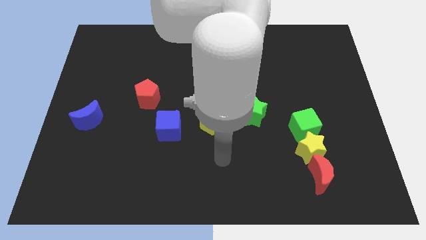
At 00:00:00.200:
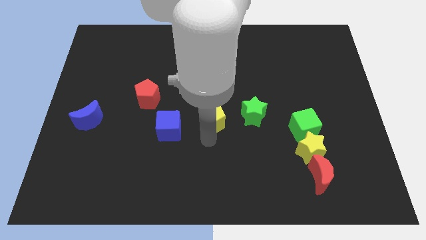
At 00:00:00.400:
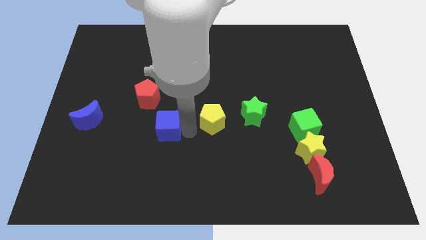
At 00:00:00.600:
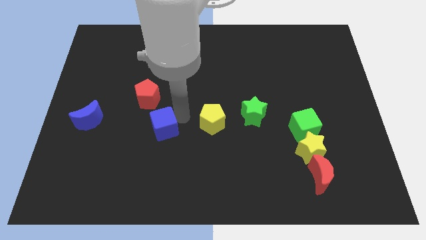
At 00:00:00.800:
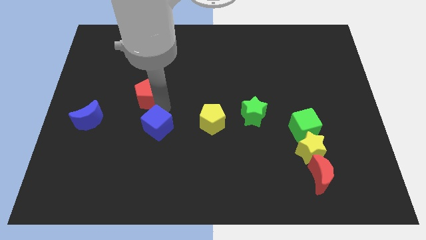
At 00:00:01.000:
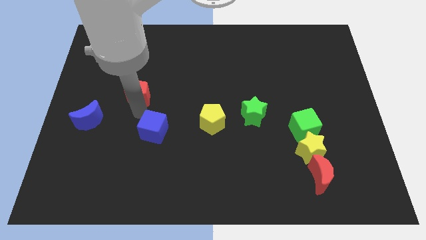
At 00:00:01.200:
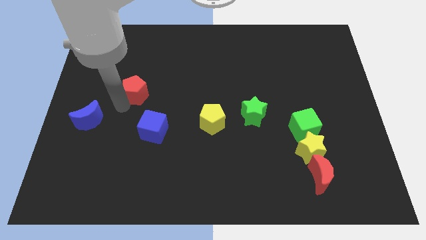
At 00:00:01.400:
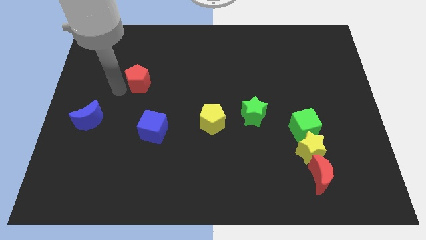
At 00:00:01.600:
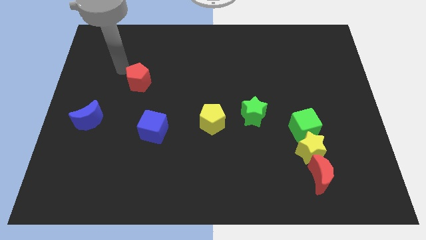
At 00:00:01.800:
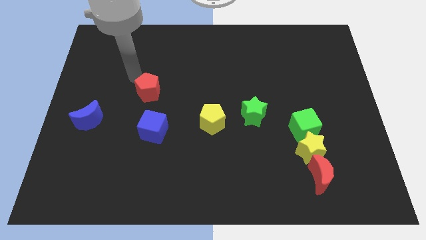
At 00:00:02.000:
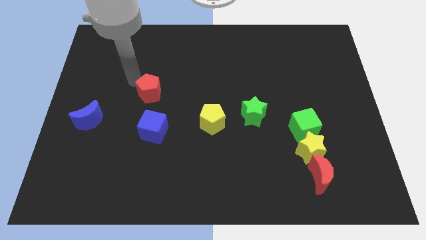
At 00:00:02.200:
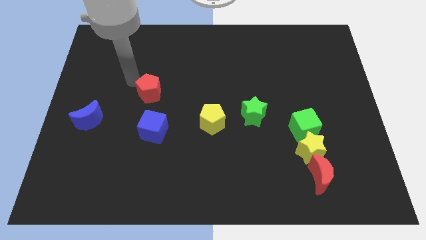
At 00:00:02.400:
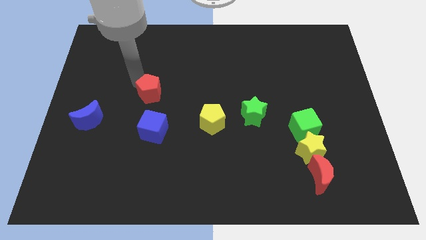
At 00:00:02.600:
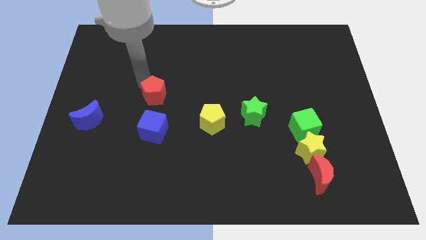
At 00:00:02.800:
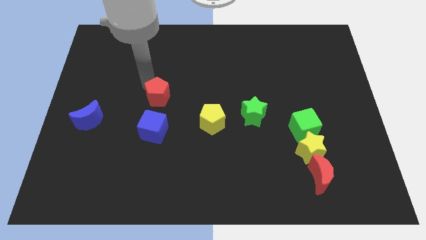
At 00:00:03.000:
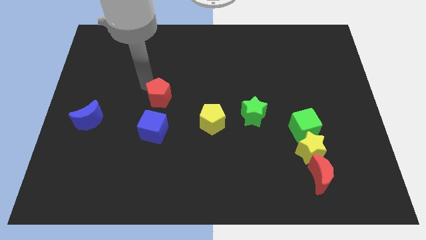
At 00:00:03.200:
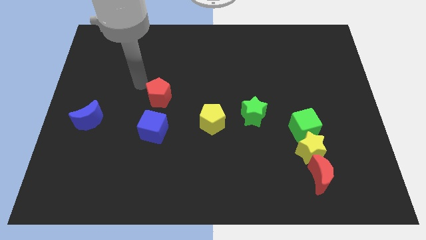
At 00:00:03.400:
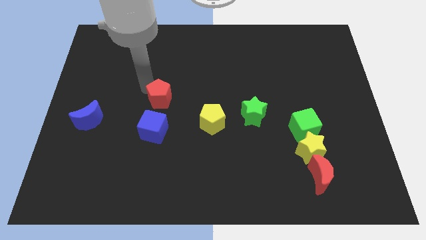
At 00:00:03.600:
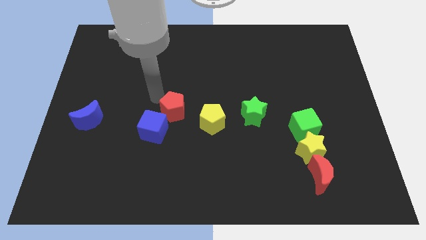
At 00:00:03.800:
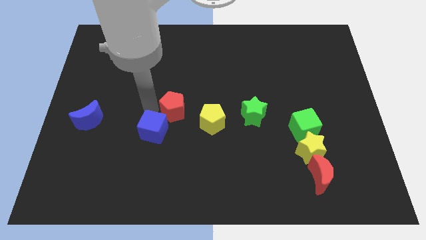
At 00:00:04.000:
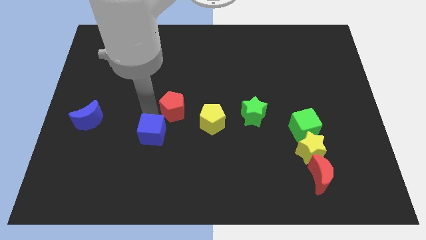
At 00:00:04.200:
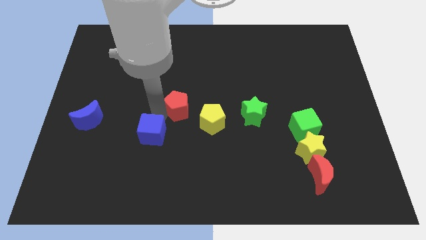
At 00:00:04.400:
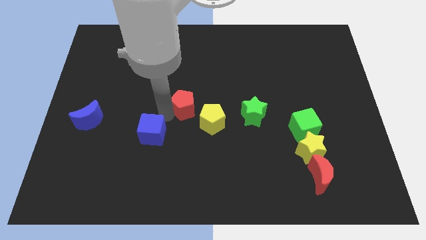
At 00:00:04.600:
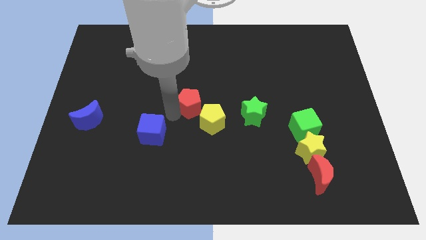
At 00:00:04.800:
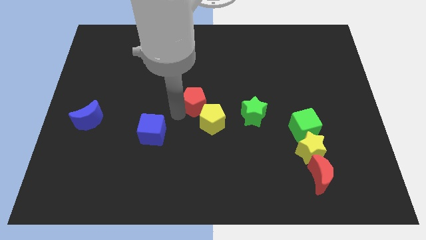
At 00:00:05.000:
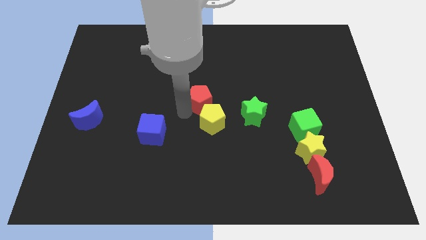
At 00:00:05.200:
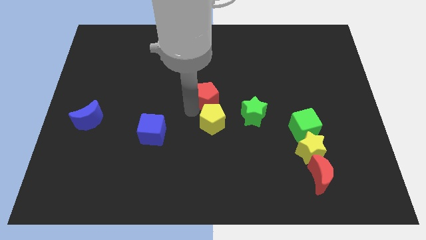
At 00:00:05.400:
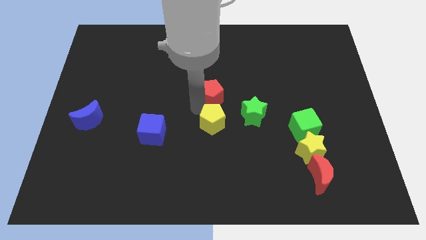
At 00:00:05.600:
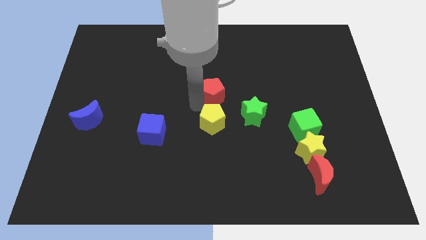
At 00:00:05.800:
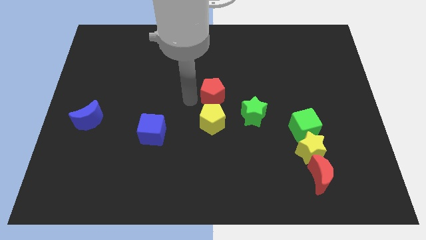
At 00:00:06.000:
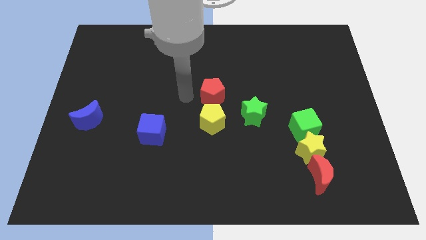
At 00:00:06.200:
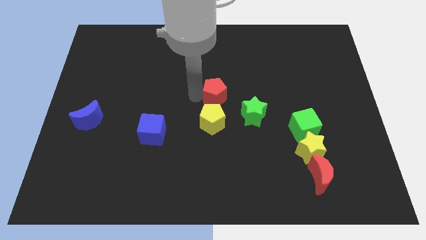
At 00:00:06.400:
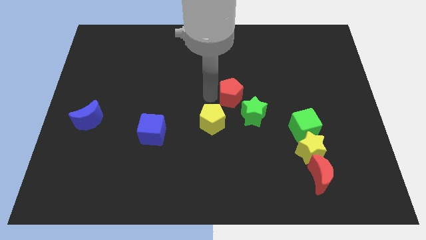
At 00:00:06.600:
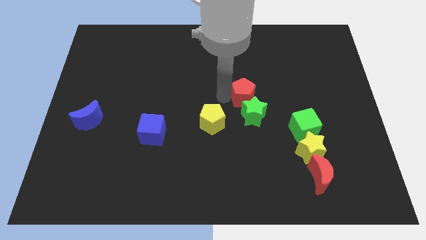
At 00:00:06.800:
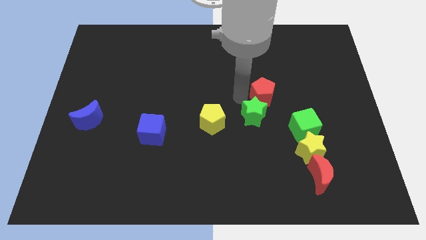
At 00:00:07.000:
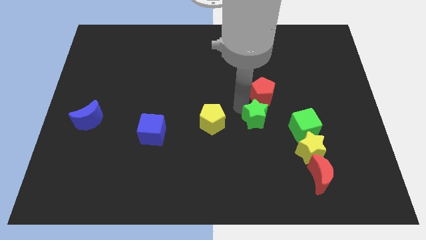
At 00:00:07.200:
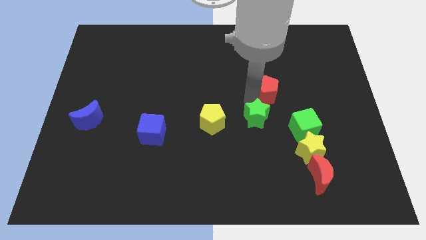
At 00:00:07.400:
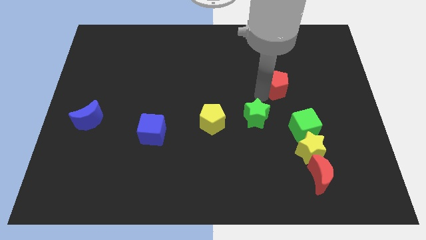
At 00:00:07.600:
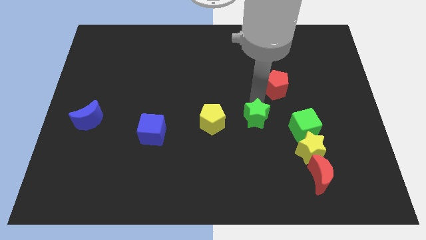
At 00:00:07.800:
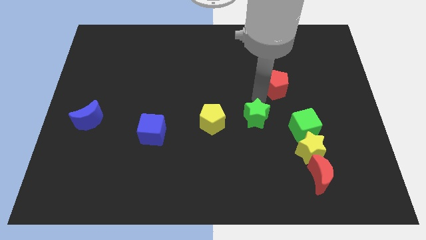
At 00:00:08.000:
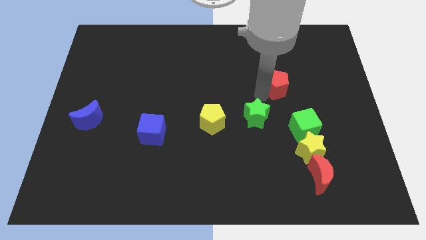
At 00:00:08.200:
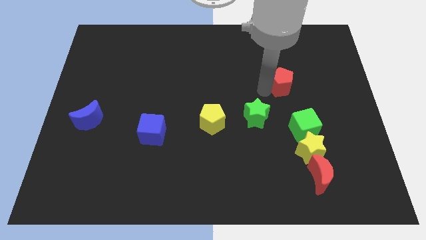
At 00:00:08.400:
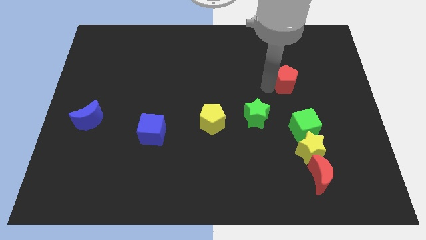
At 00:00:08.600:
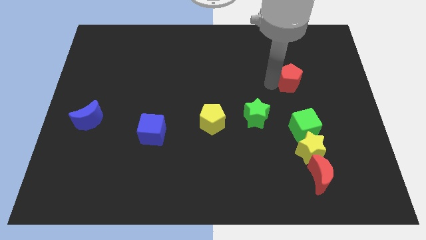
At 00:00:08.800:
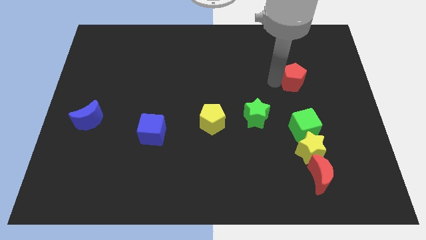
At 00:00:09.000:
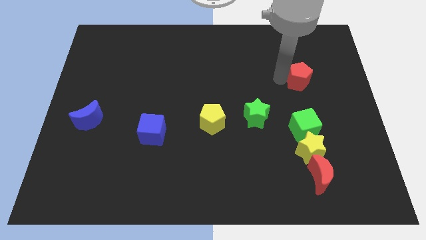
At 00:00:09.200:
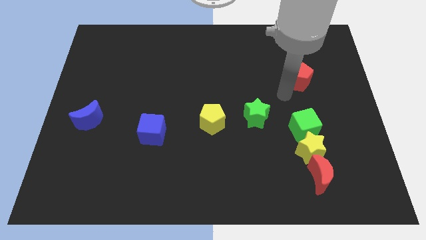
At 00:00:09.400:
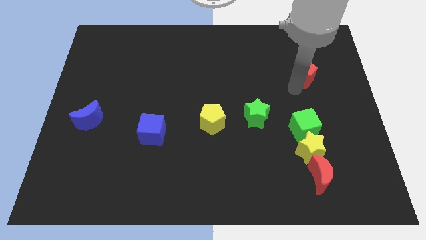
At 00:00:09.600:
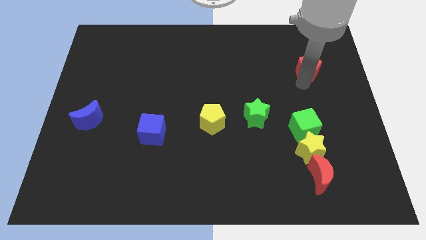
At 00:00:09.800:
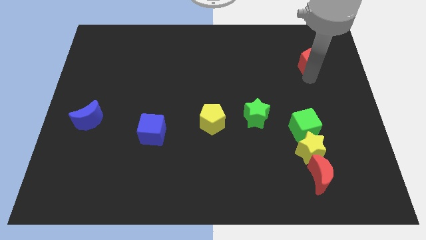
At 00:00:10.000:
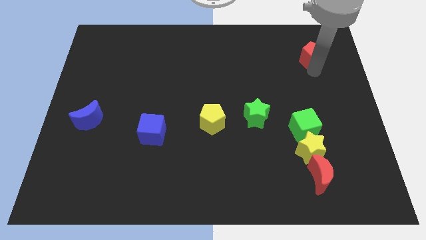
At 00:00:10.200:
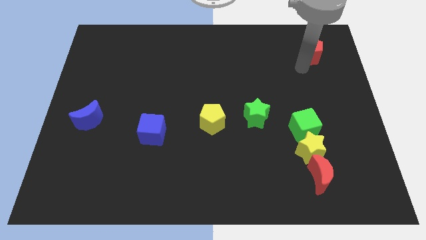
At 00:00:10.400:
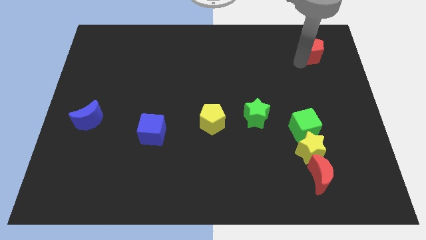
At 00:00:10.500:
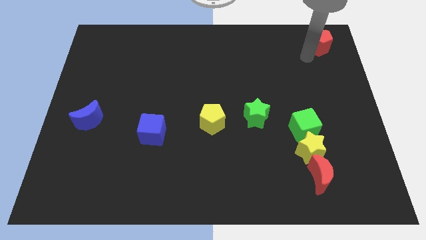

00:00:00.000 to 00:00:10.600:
slide the red pentagon to the top right corner
